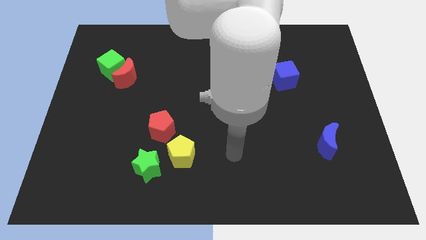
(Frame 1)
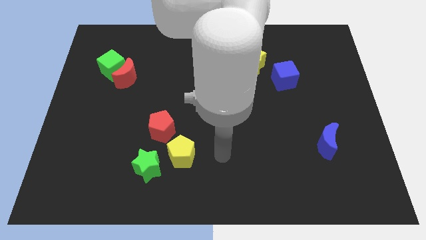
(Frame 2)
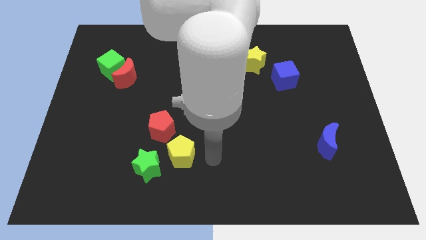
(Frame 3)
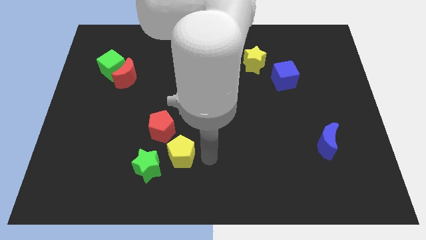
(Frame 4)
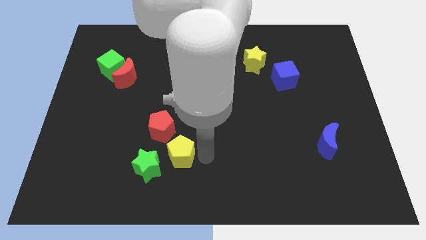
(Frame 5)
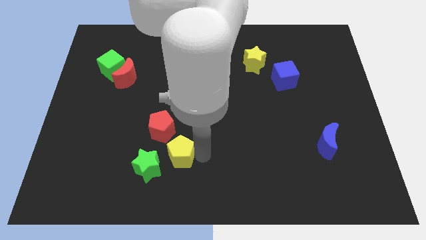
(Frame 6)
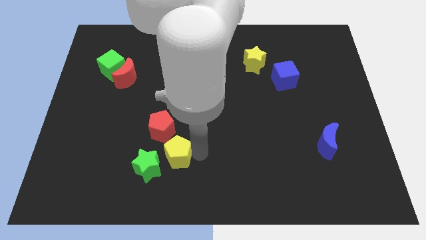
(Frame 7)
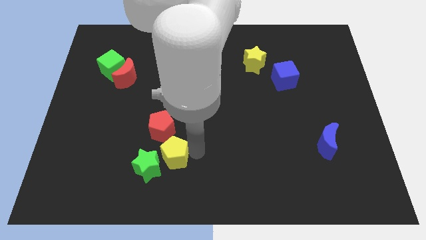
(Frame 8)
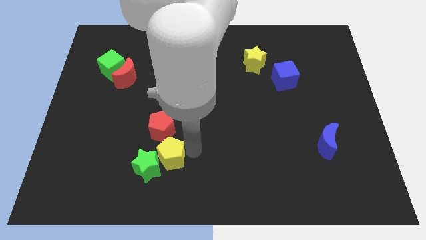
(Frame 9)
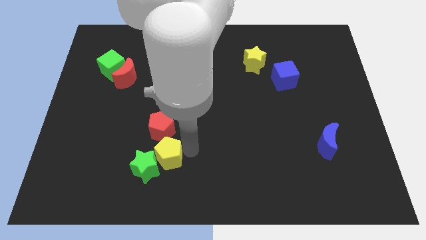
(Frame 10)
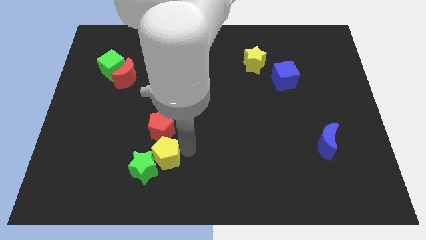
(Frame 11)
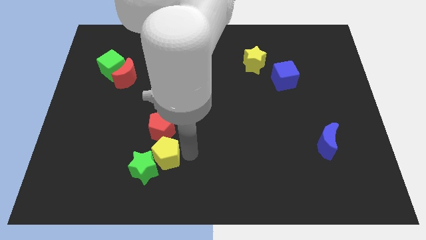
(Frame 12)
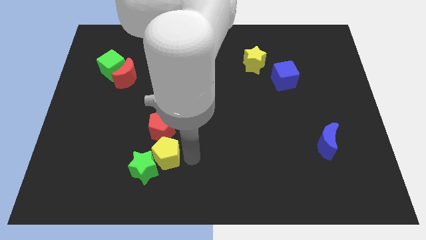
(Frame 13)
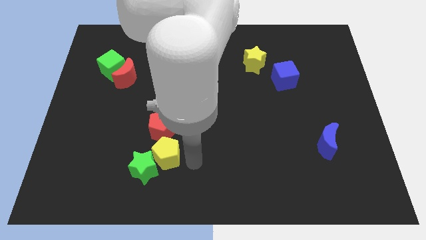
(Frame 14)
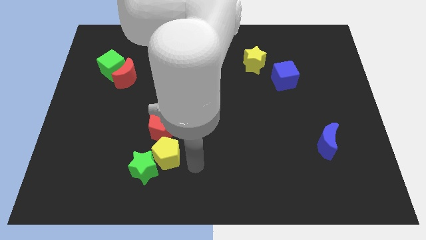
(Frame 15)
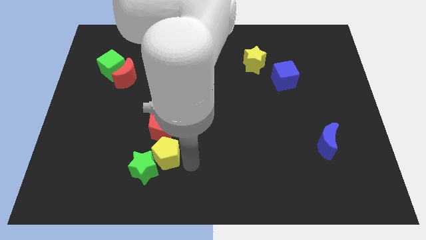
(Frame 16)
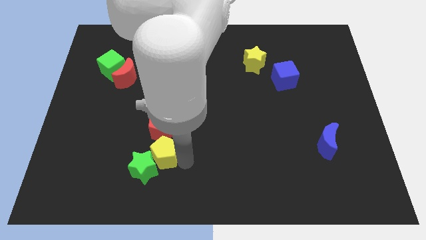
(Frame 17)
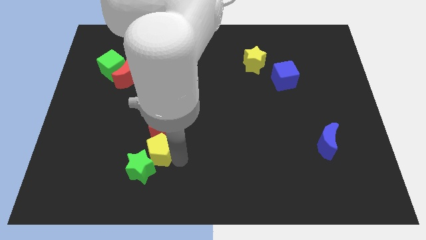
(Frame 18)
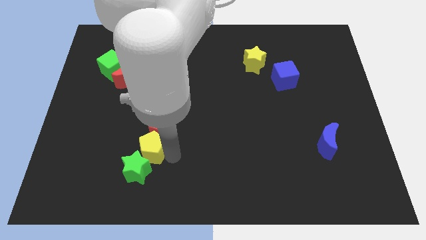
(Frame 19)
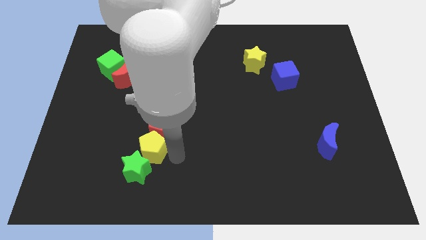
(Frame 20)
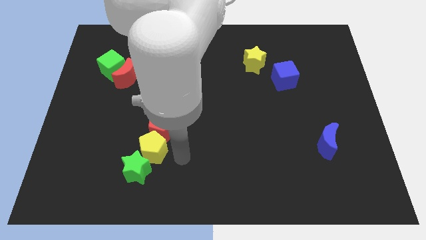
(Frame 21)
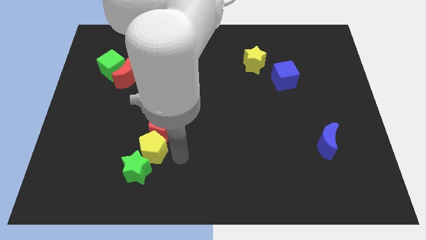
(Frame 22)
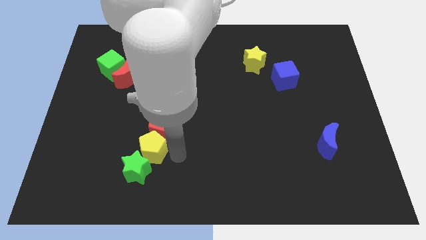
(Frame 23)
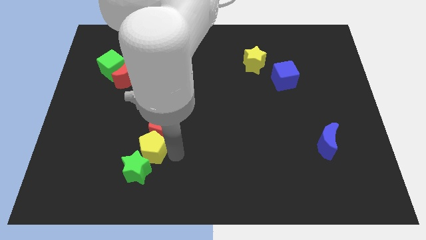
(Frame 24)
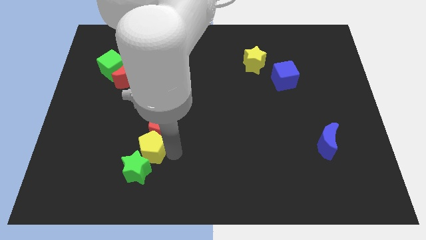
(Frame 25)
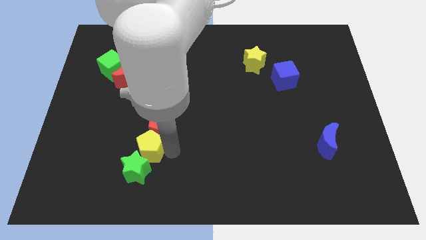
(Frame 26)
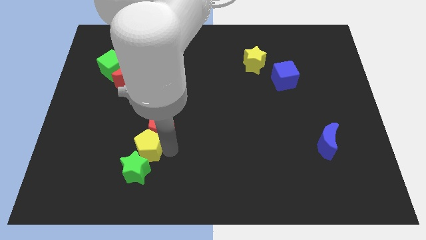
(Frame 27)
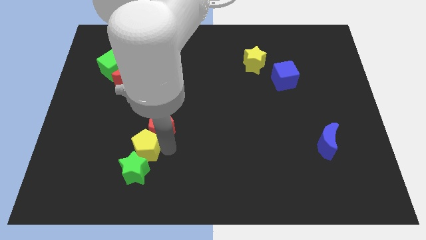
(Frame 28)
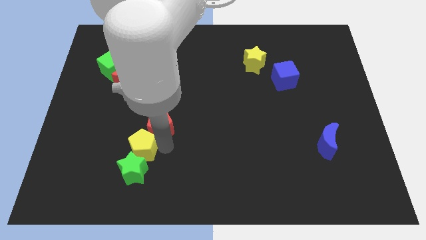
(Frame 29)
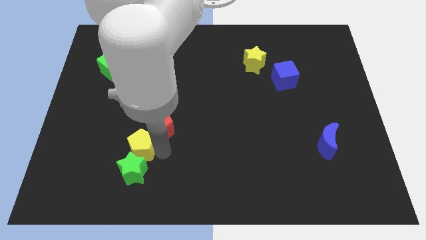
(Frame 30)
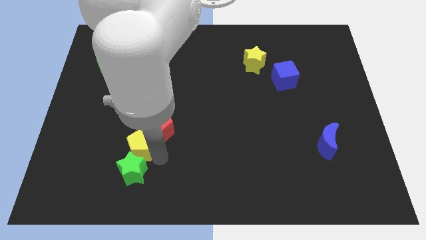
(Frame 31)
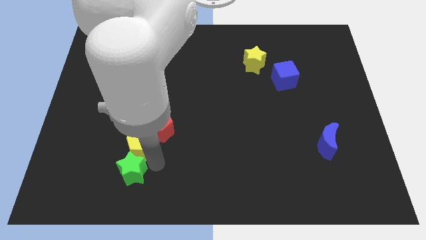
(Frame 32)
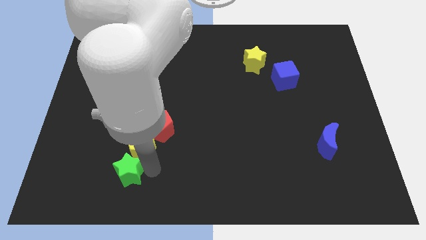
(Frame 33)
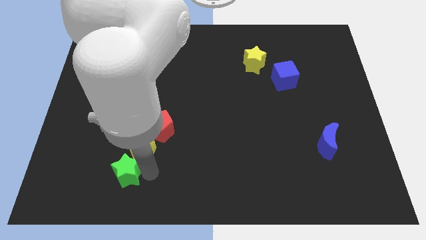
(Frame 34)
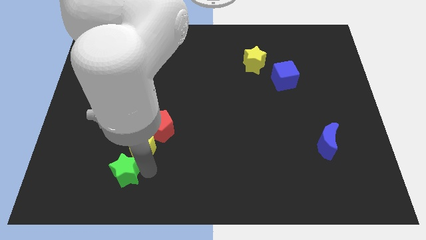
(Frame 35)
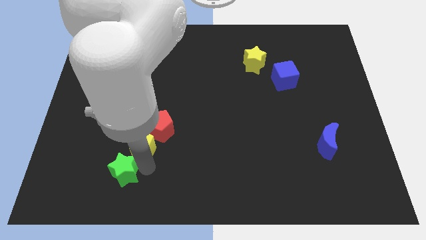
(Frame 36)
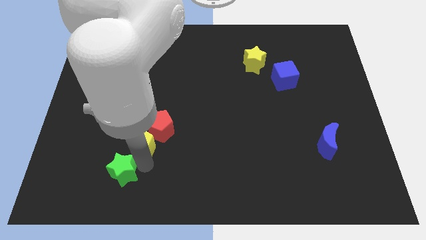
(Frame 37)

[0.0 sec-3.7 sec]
slightly move the yellow pentagon upwards and to the left diagonally

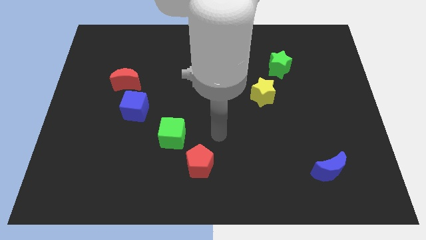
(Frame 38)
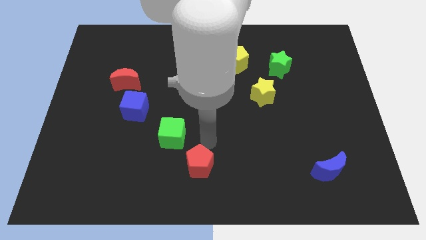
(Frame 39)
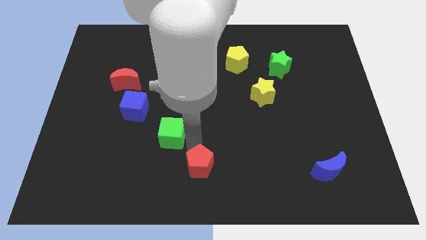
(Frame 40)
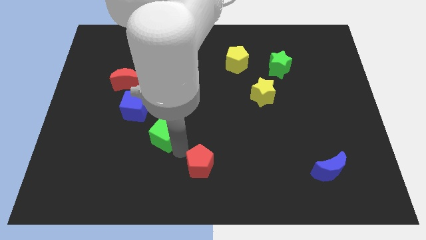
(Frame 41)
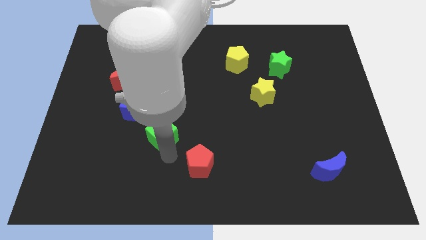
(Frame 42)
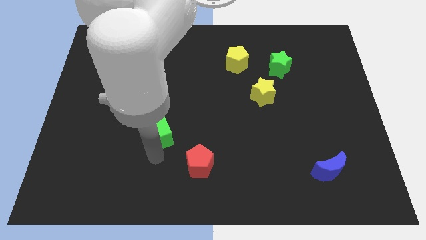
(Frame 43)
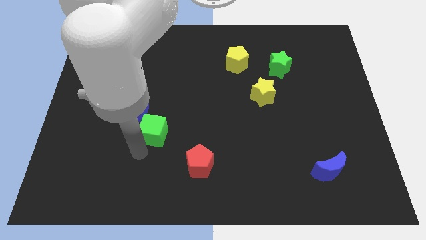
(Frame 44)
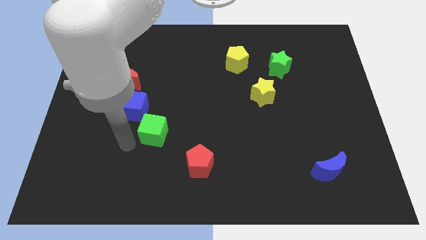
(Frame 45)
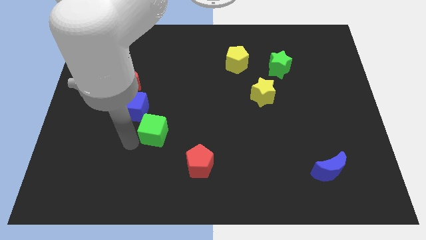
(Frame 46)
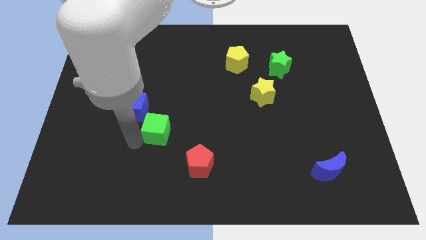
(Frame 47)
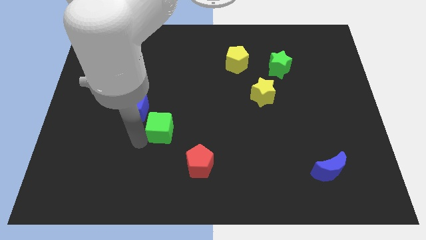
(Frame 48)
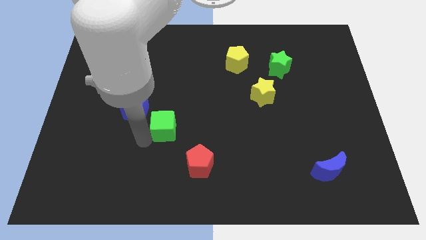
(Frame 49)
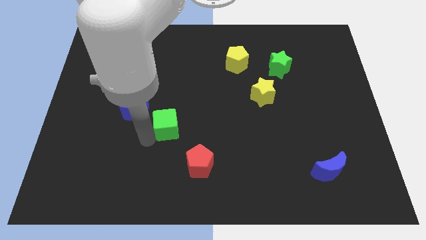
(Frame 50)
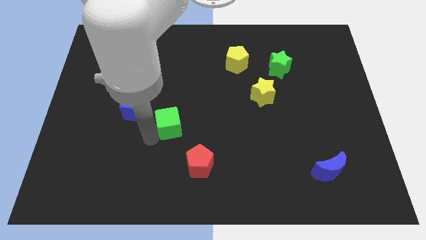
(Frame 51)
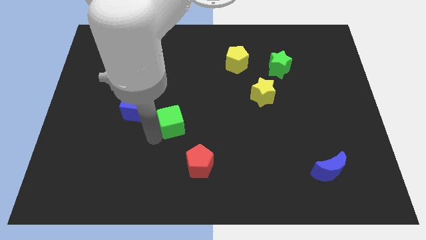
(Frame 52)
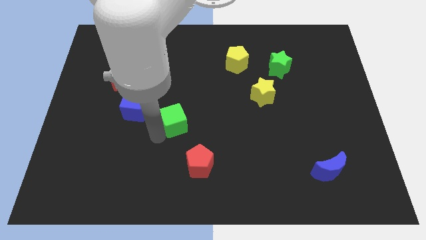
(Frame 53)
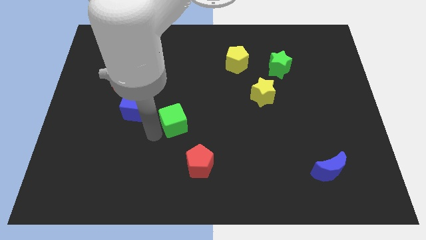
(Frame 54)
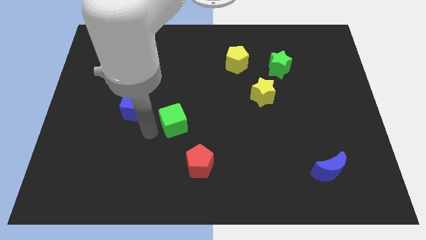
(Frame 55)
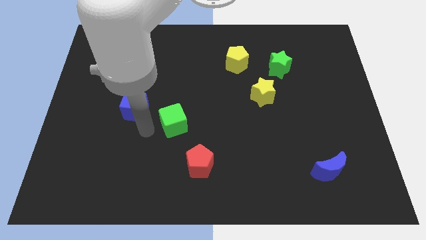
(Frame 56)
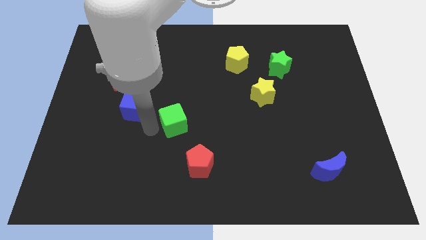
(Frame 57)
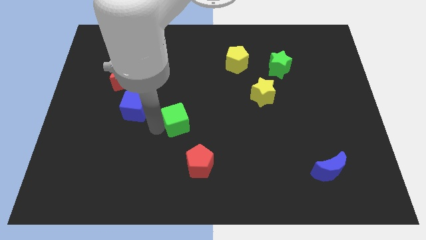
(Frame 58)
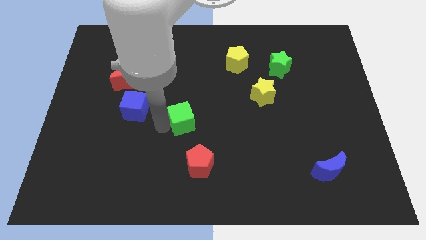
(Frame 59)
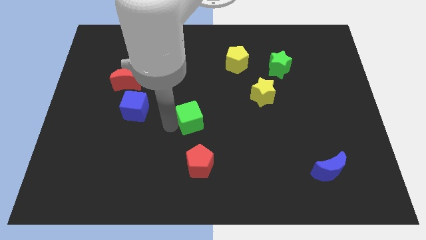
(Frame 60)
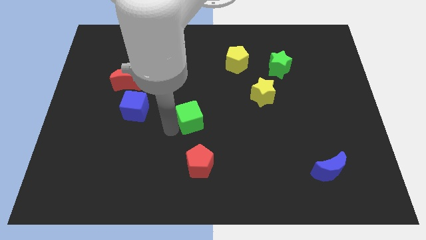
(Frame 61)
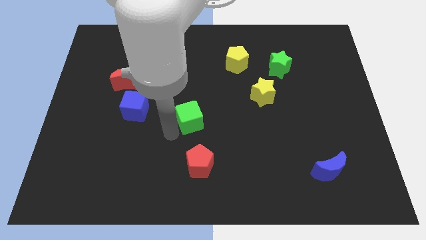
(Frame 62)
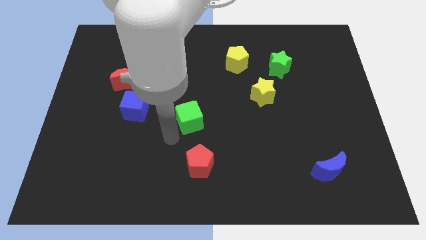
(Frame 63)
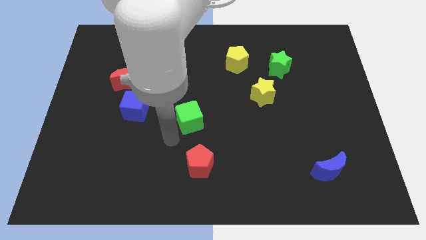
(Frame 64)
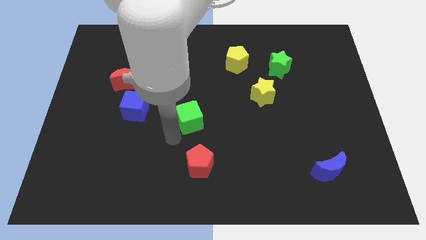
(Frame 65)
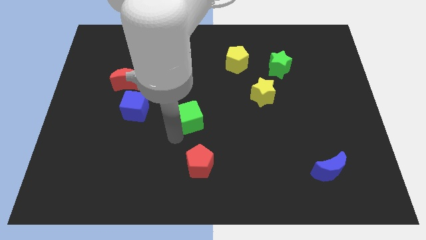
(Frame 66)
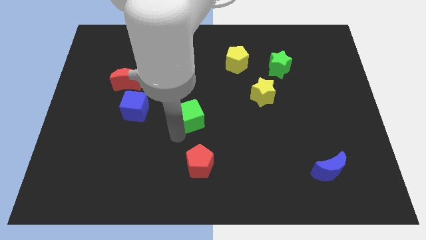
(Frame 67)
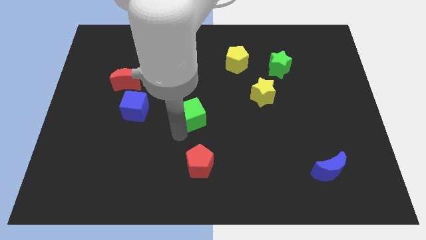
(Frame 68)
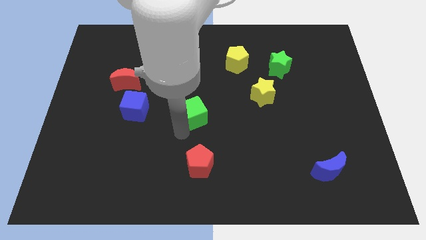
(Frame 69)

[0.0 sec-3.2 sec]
slightly move the green cube upwards and right diagonally

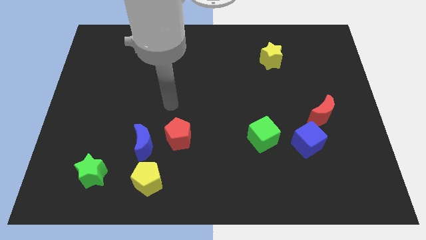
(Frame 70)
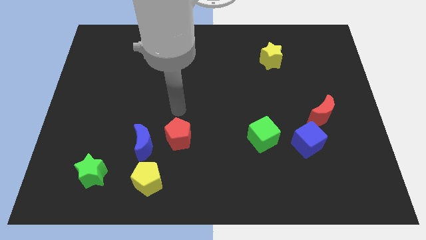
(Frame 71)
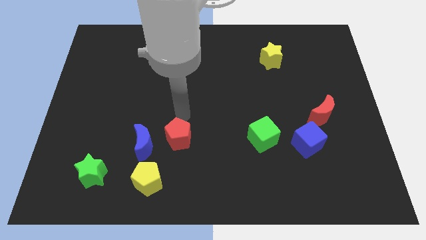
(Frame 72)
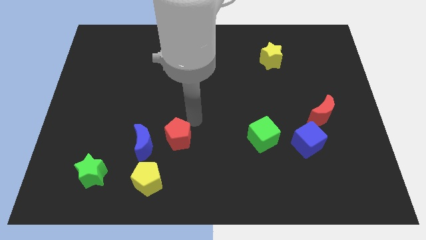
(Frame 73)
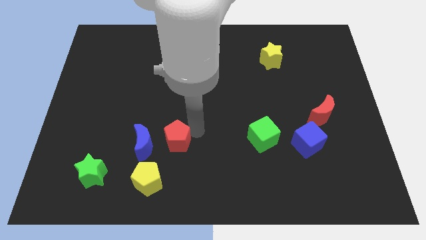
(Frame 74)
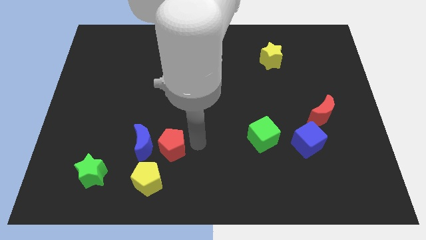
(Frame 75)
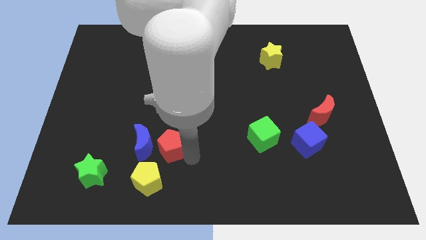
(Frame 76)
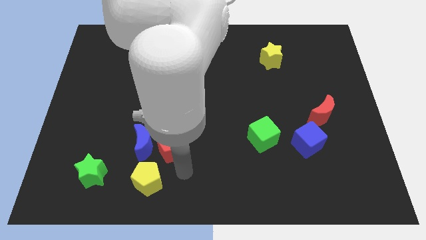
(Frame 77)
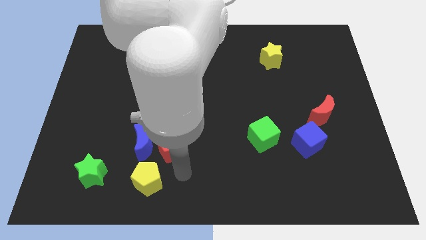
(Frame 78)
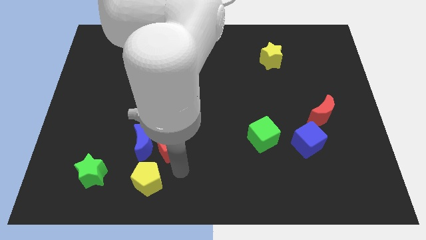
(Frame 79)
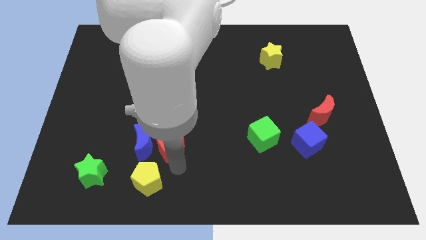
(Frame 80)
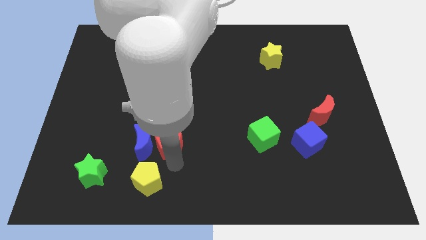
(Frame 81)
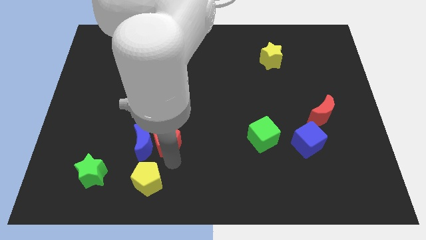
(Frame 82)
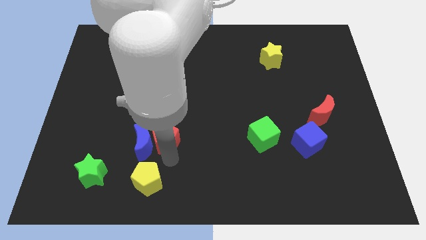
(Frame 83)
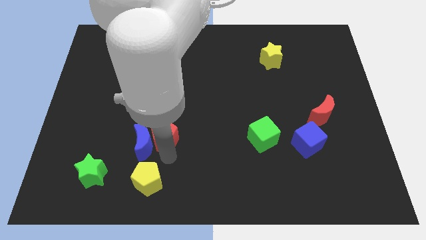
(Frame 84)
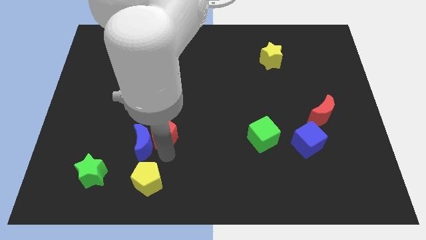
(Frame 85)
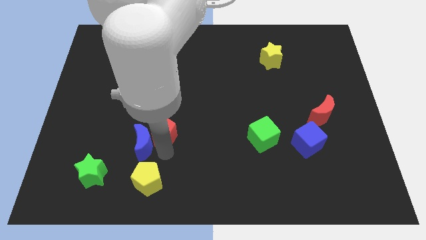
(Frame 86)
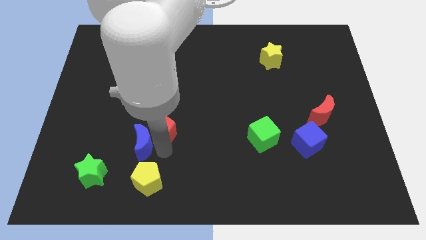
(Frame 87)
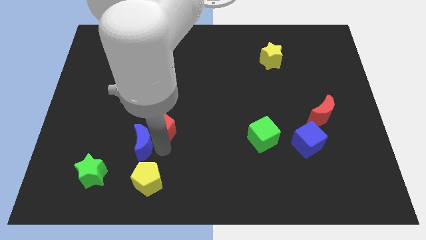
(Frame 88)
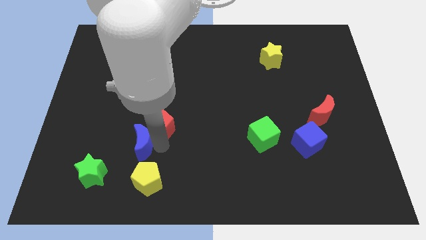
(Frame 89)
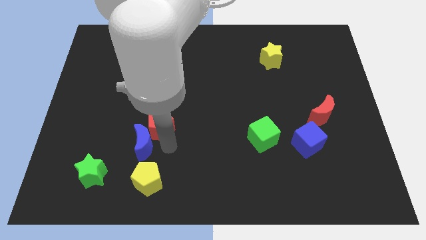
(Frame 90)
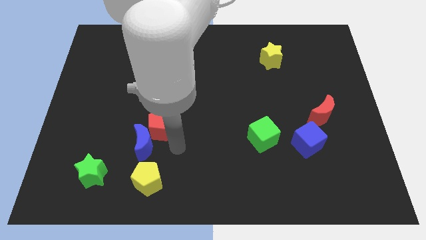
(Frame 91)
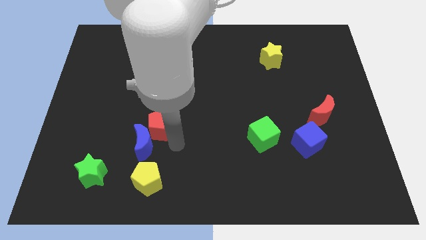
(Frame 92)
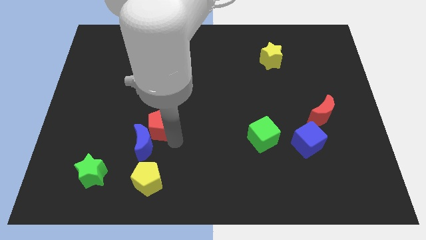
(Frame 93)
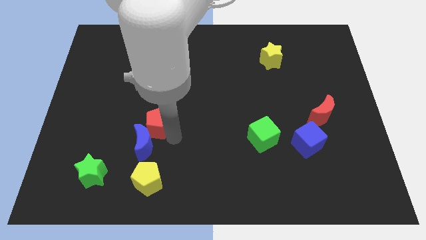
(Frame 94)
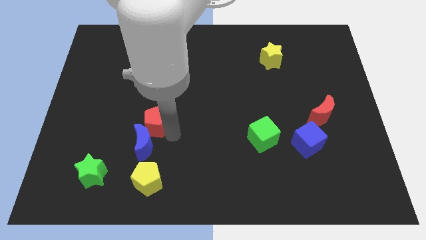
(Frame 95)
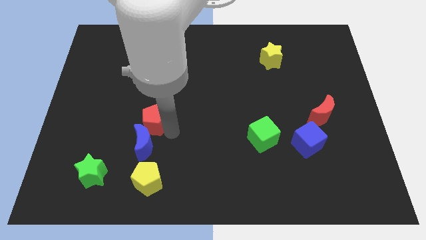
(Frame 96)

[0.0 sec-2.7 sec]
slightly slide the red pentagon up and left
